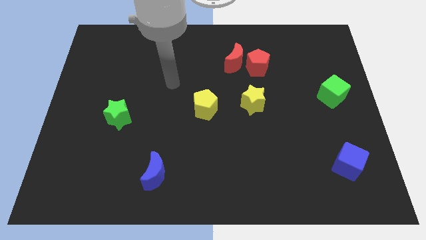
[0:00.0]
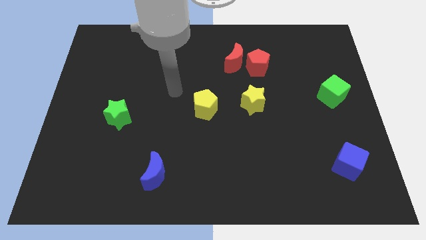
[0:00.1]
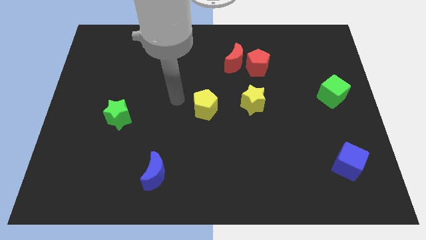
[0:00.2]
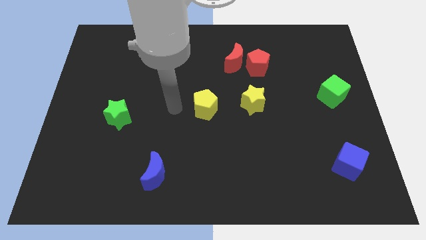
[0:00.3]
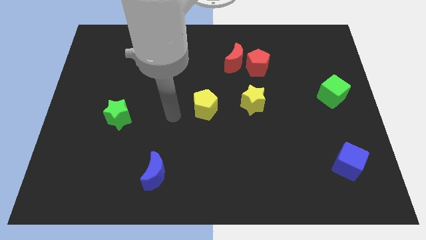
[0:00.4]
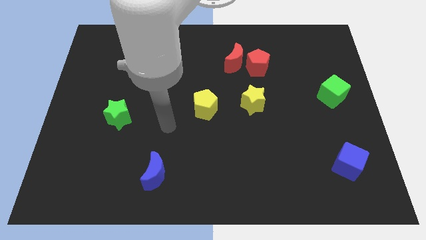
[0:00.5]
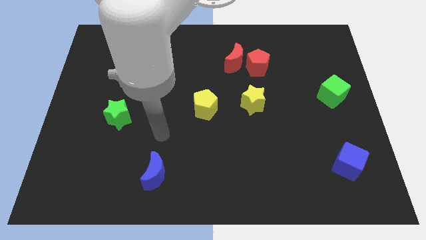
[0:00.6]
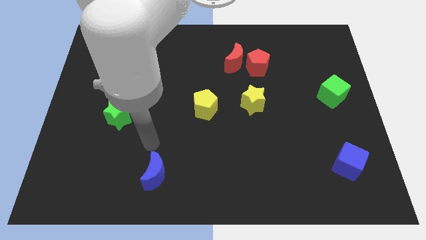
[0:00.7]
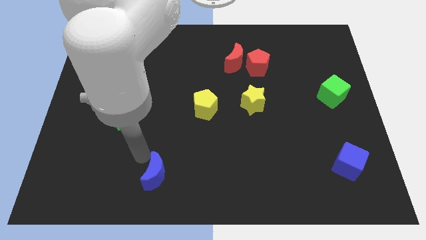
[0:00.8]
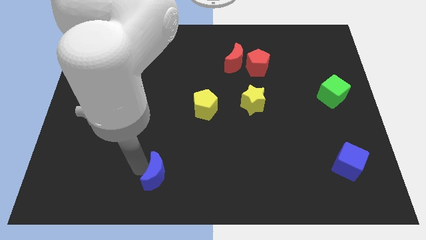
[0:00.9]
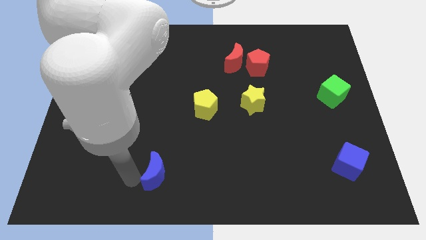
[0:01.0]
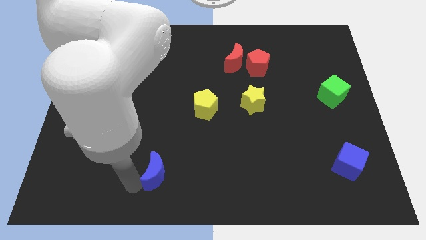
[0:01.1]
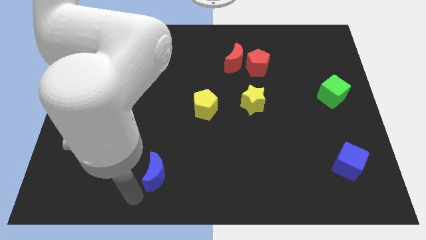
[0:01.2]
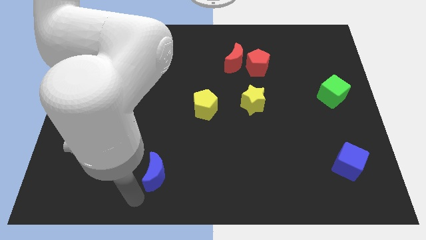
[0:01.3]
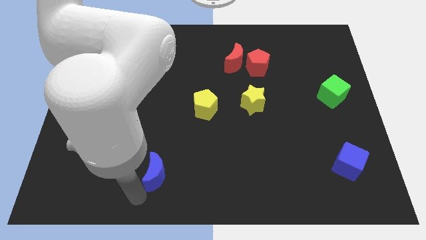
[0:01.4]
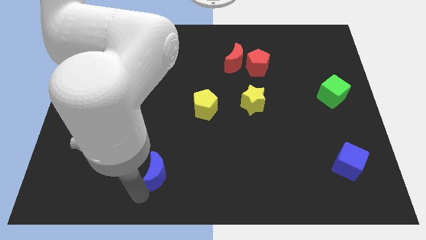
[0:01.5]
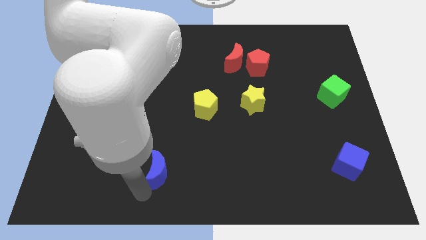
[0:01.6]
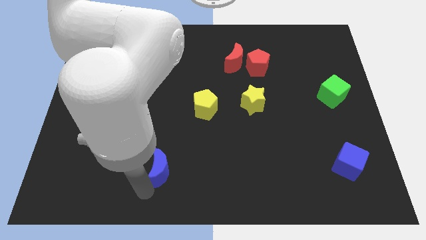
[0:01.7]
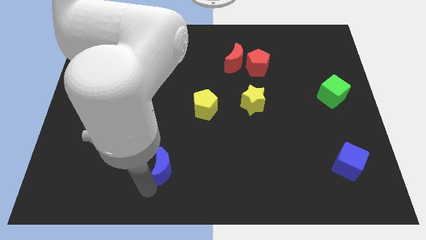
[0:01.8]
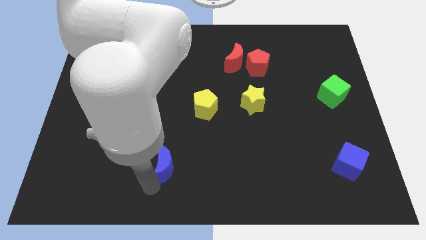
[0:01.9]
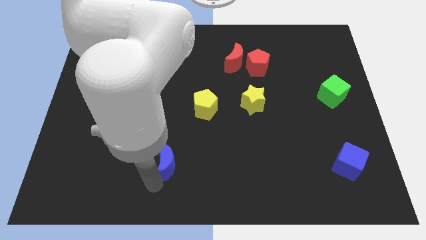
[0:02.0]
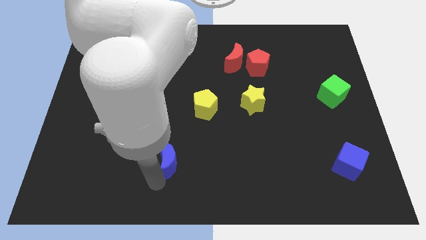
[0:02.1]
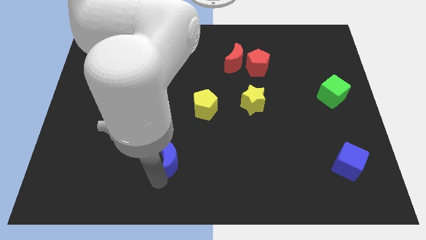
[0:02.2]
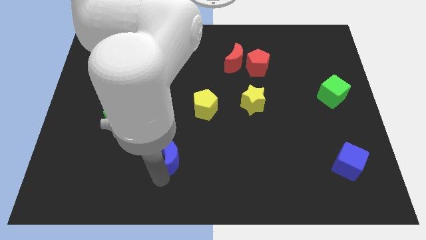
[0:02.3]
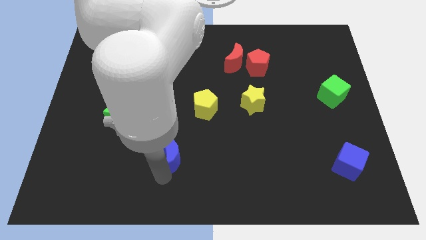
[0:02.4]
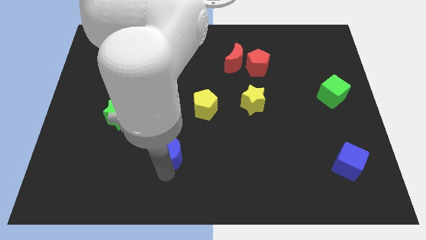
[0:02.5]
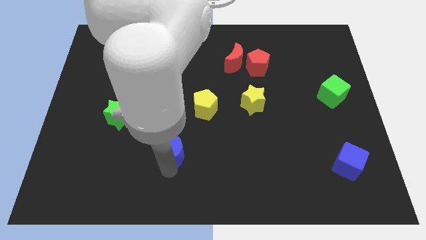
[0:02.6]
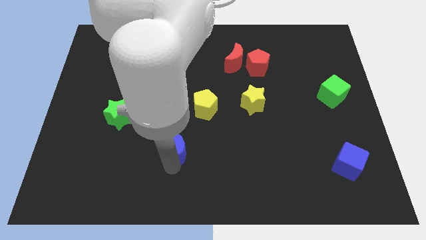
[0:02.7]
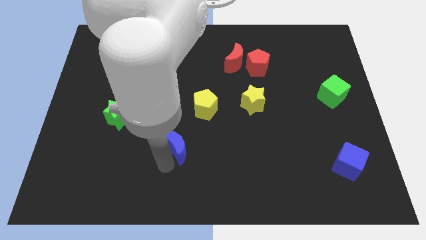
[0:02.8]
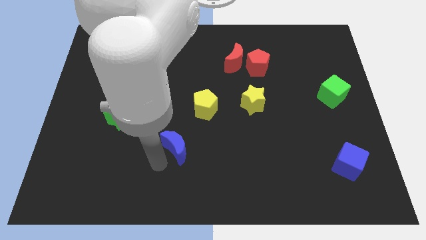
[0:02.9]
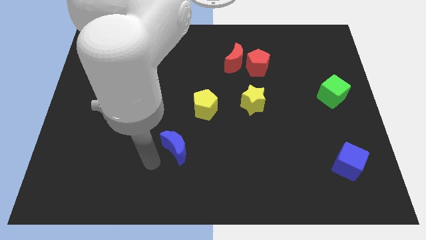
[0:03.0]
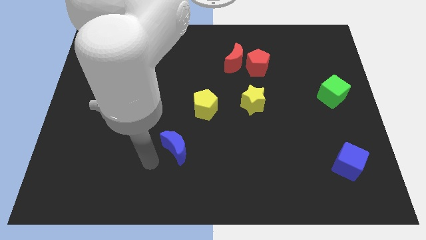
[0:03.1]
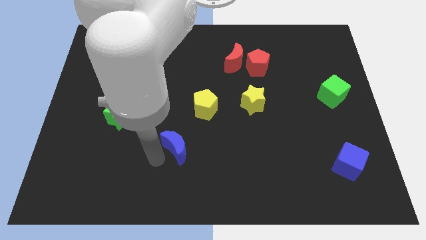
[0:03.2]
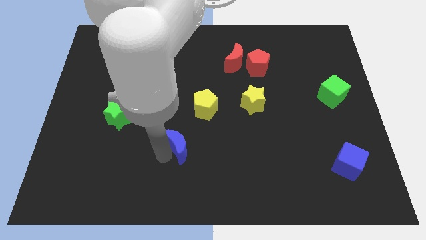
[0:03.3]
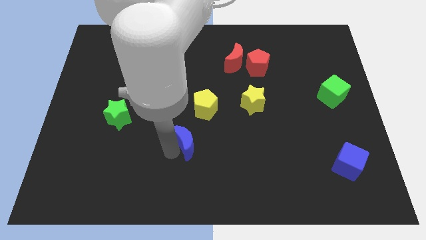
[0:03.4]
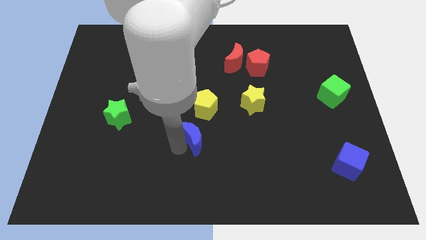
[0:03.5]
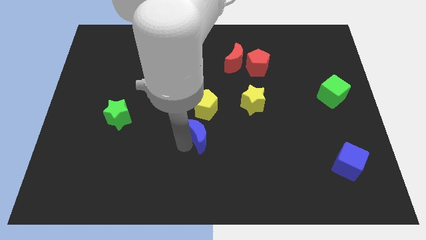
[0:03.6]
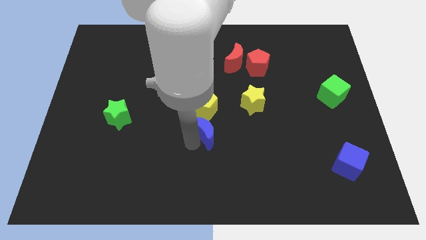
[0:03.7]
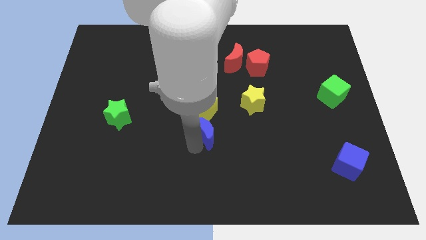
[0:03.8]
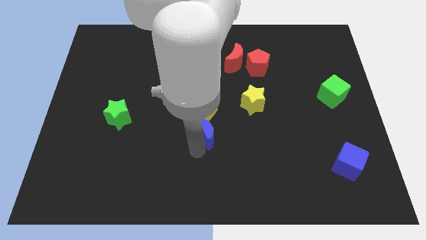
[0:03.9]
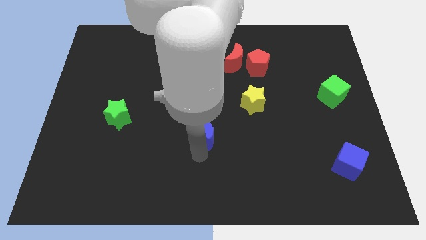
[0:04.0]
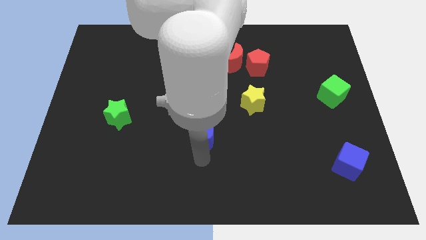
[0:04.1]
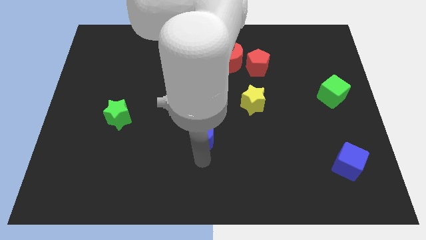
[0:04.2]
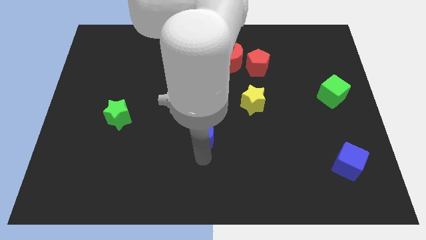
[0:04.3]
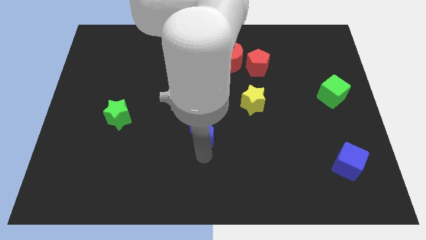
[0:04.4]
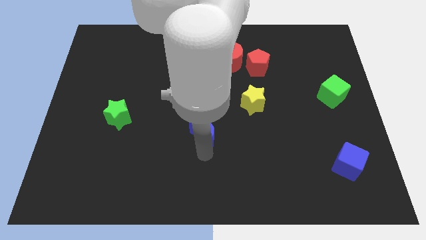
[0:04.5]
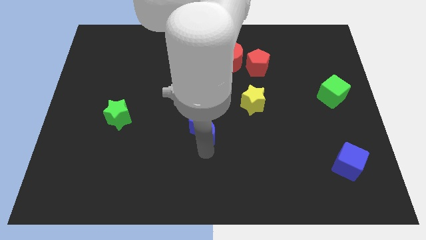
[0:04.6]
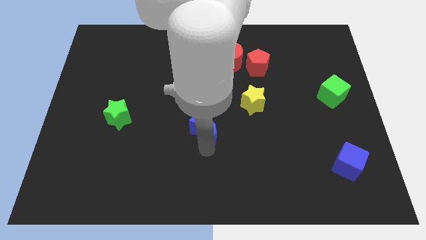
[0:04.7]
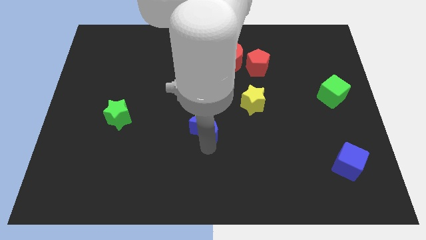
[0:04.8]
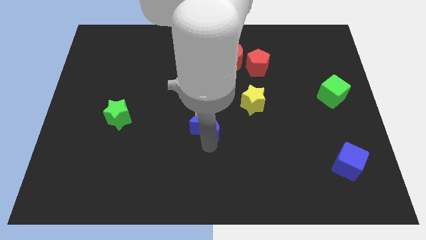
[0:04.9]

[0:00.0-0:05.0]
push the blue moon towards the yellow pentagon

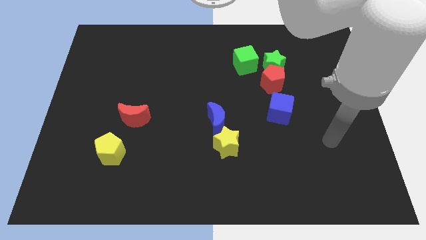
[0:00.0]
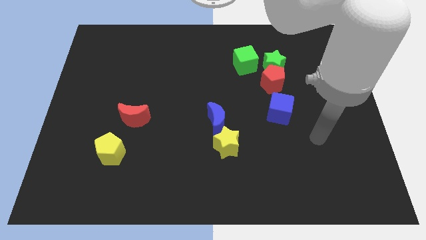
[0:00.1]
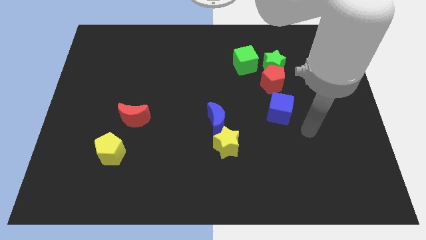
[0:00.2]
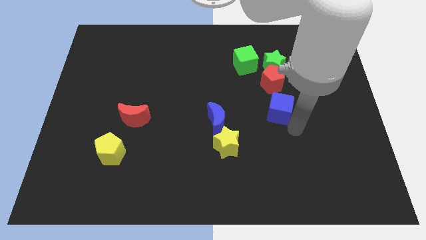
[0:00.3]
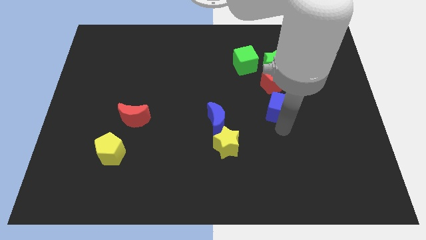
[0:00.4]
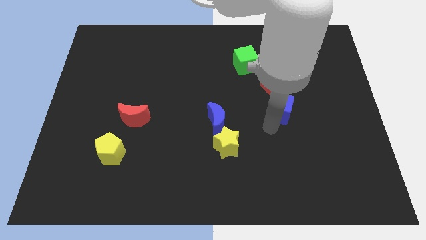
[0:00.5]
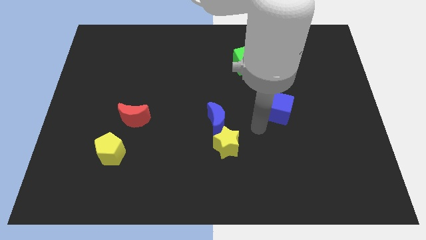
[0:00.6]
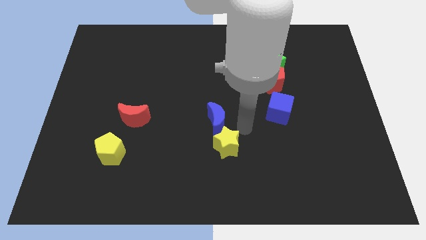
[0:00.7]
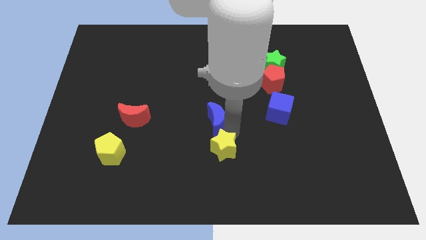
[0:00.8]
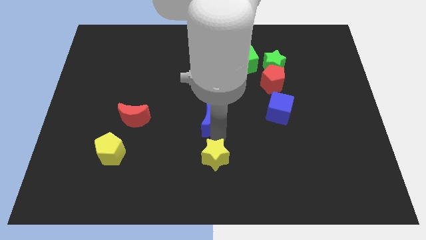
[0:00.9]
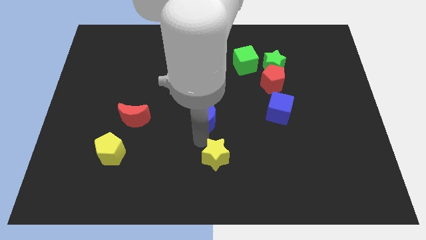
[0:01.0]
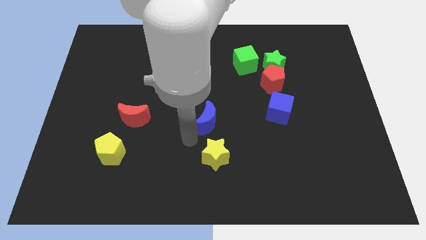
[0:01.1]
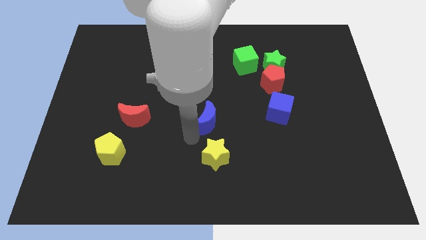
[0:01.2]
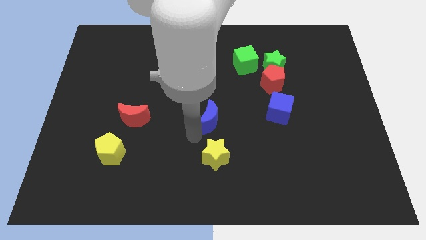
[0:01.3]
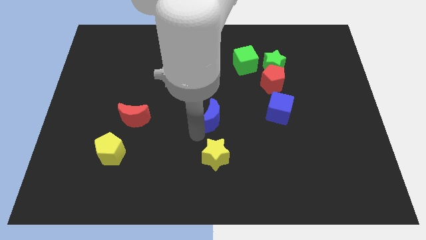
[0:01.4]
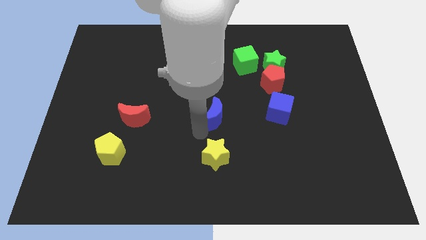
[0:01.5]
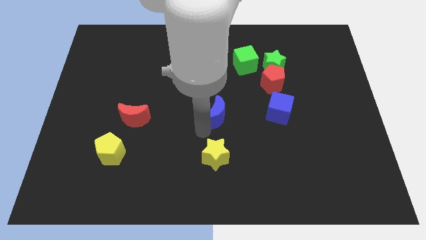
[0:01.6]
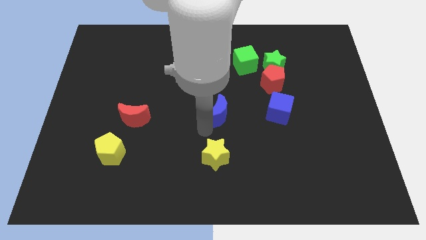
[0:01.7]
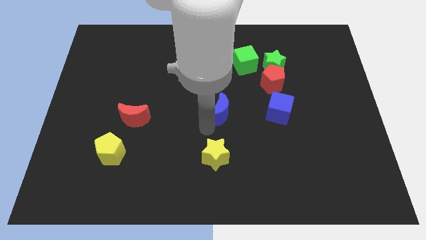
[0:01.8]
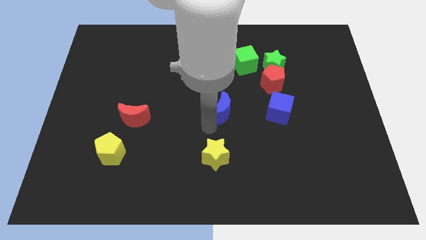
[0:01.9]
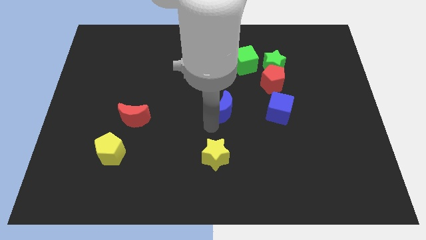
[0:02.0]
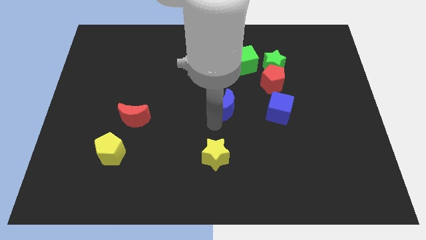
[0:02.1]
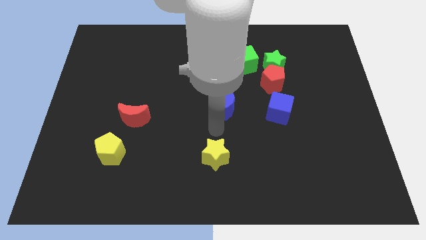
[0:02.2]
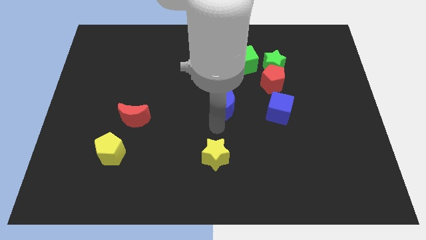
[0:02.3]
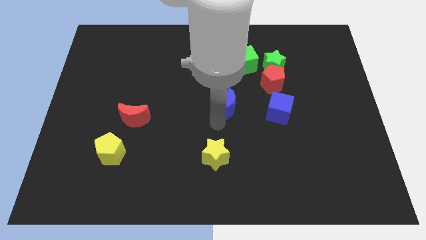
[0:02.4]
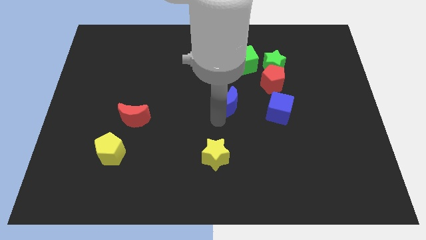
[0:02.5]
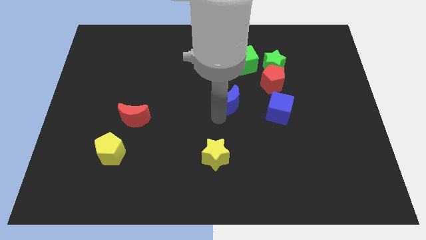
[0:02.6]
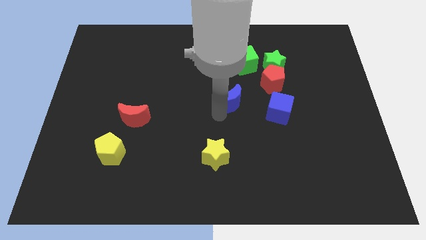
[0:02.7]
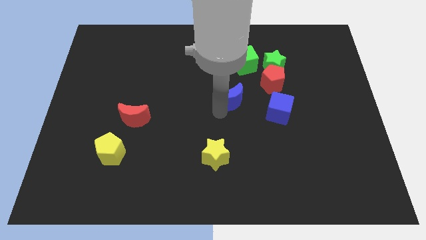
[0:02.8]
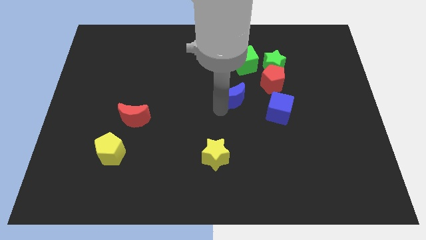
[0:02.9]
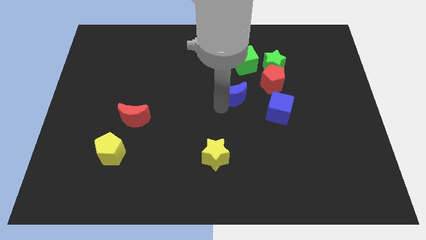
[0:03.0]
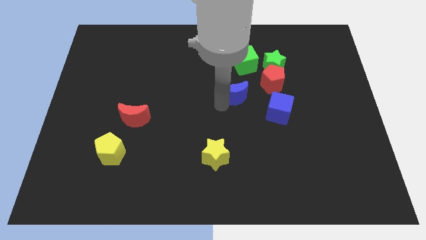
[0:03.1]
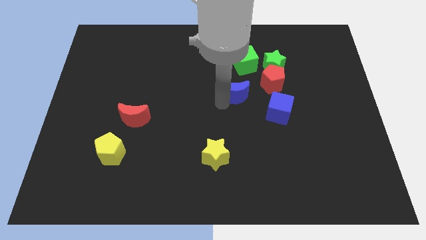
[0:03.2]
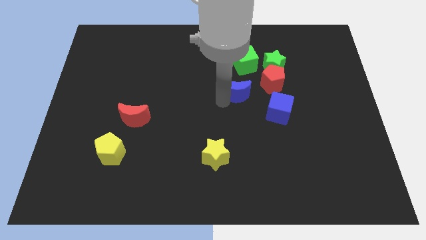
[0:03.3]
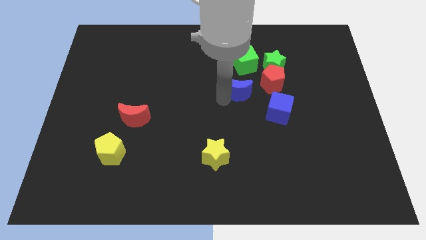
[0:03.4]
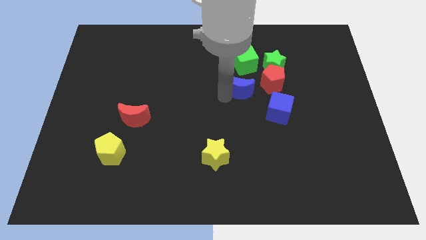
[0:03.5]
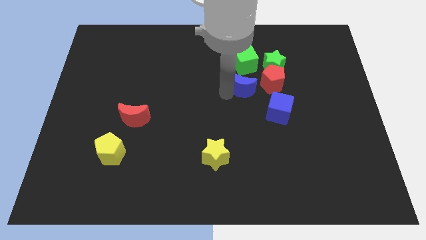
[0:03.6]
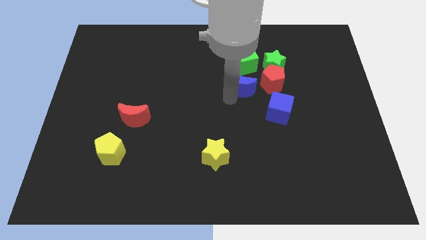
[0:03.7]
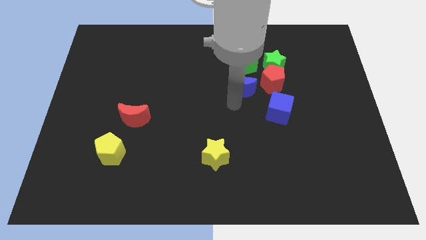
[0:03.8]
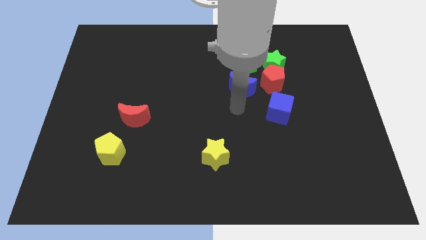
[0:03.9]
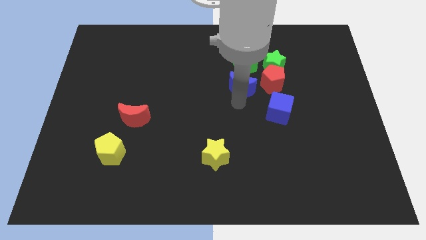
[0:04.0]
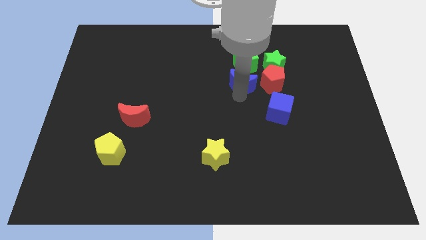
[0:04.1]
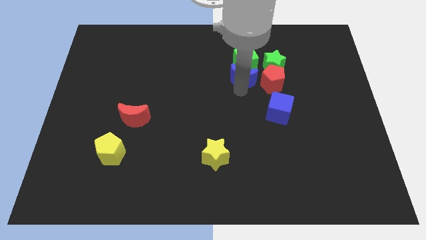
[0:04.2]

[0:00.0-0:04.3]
push the blue moon towards the green cube
